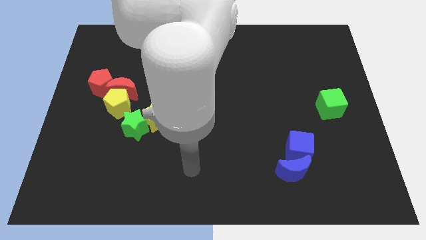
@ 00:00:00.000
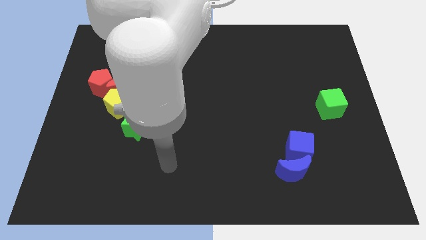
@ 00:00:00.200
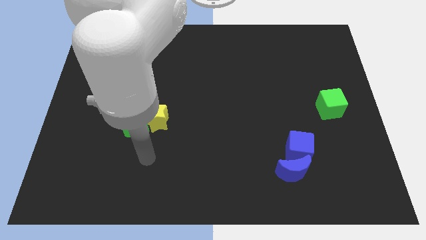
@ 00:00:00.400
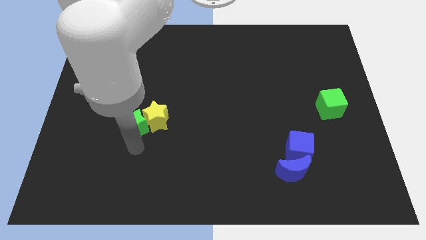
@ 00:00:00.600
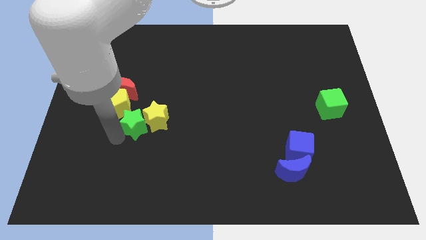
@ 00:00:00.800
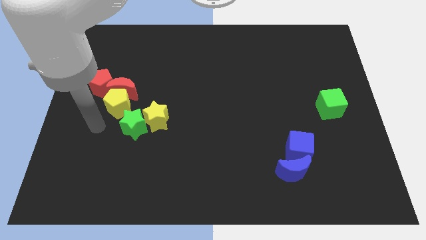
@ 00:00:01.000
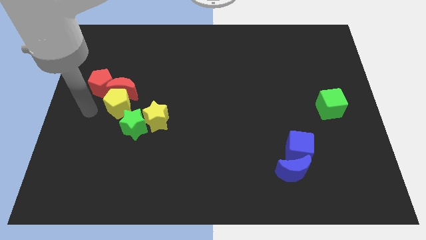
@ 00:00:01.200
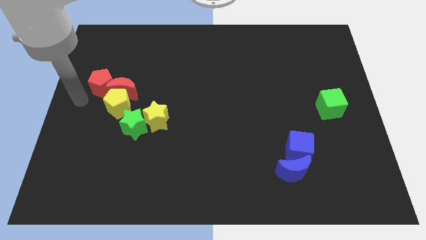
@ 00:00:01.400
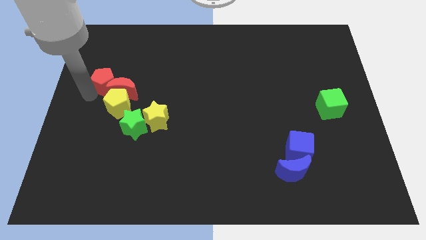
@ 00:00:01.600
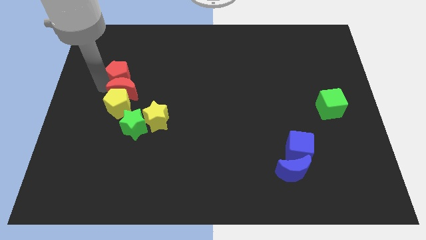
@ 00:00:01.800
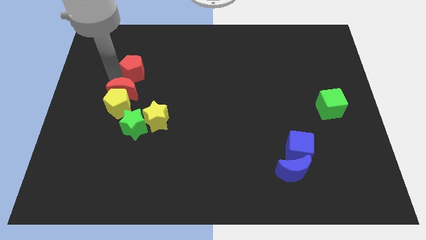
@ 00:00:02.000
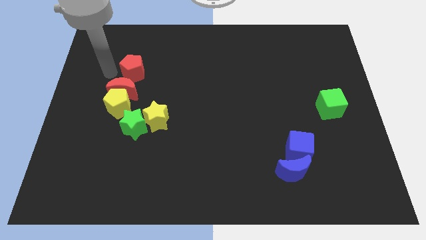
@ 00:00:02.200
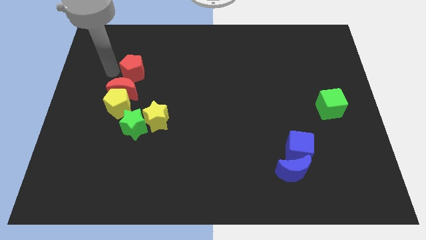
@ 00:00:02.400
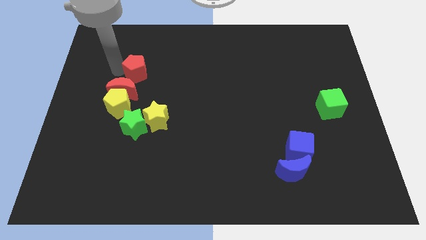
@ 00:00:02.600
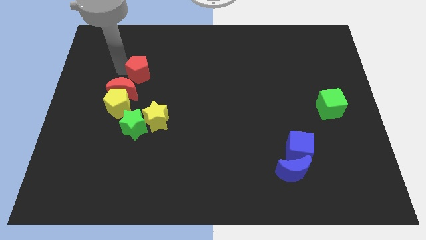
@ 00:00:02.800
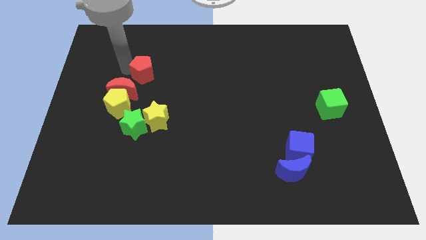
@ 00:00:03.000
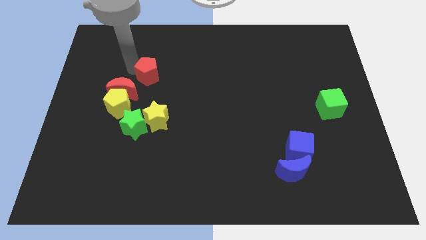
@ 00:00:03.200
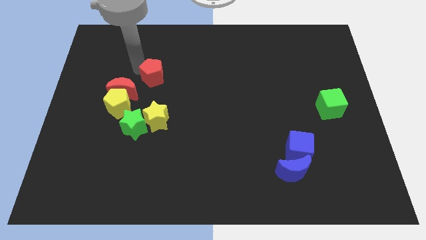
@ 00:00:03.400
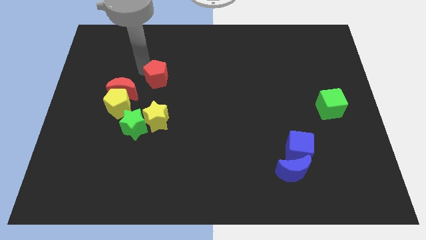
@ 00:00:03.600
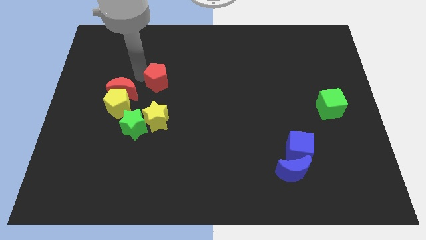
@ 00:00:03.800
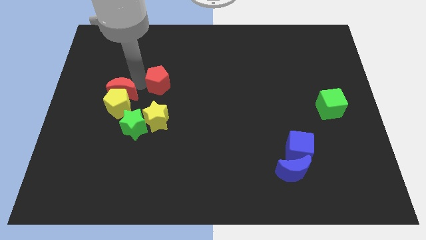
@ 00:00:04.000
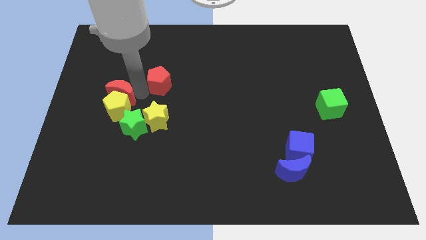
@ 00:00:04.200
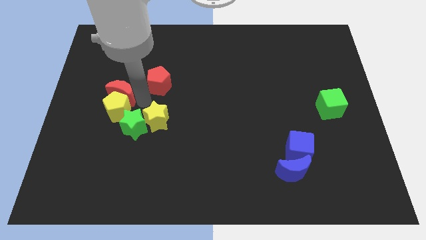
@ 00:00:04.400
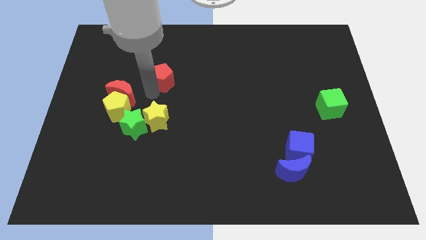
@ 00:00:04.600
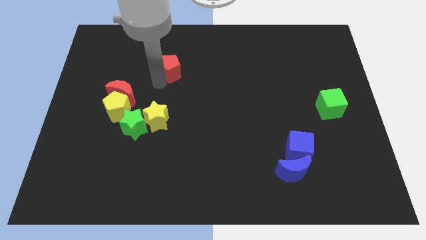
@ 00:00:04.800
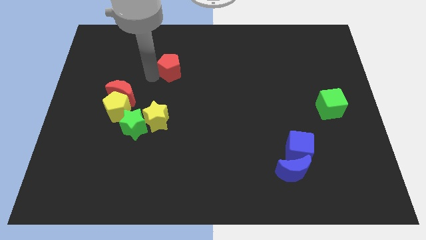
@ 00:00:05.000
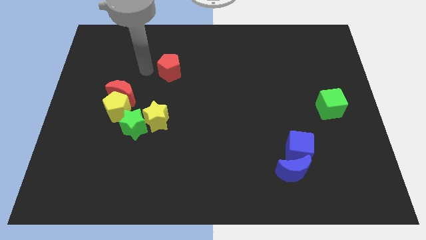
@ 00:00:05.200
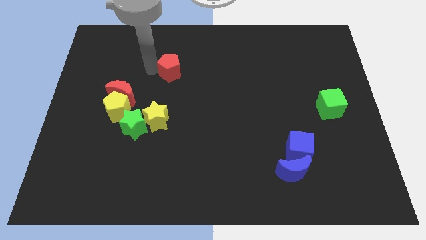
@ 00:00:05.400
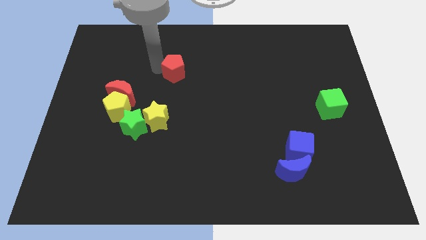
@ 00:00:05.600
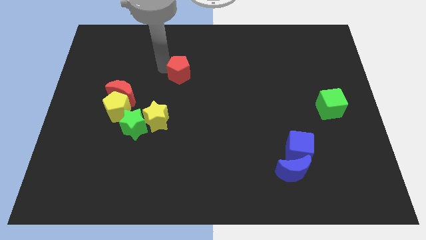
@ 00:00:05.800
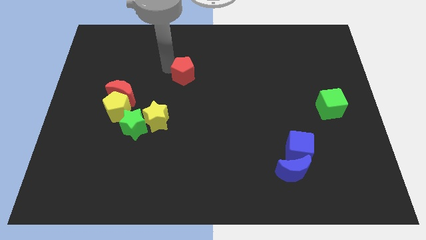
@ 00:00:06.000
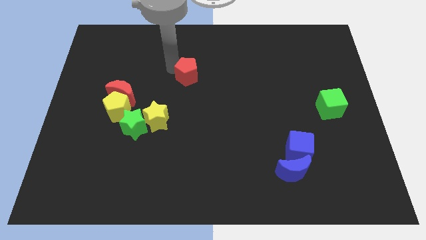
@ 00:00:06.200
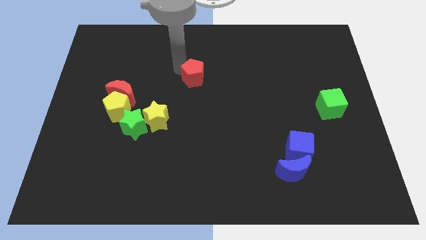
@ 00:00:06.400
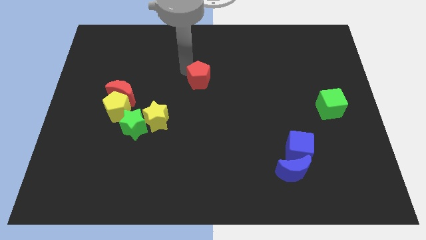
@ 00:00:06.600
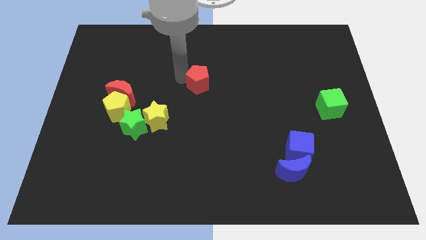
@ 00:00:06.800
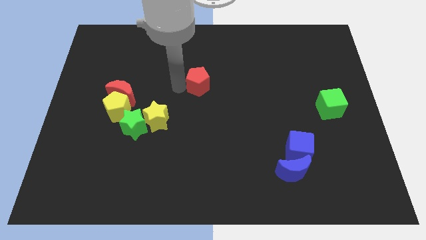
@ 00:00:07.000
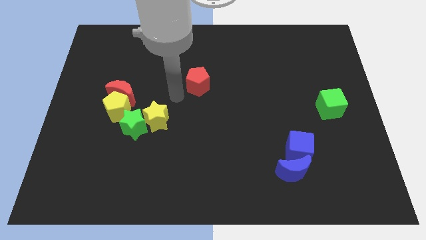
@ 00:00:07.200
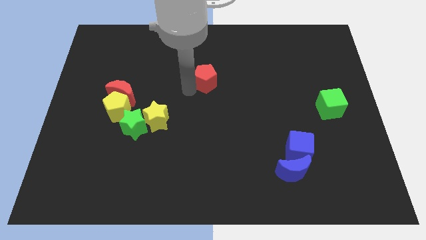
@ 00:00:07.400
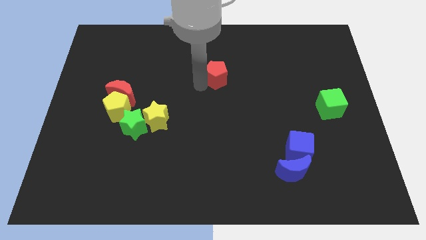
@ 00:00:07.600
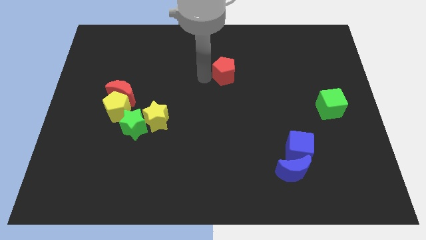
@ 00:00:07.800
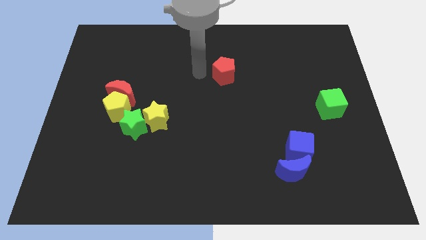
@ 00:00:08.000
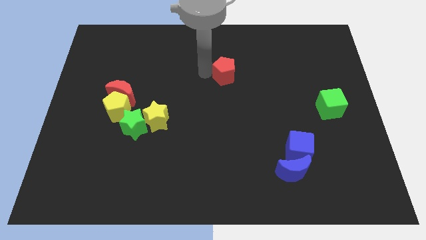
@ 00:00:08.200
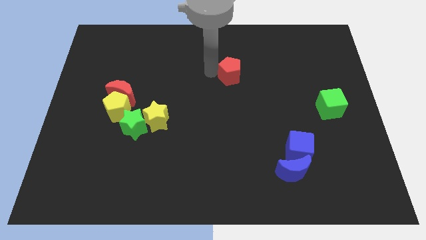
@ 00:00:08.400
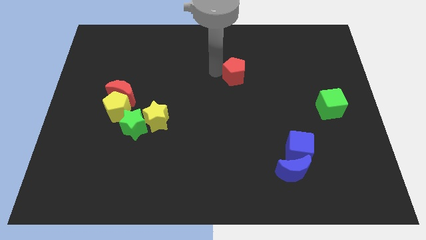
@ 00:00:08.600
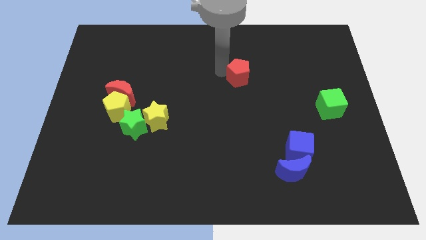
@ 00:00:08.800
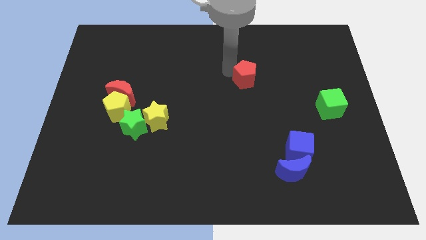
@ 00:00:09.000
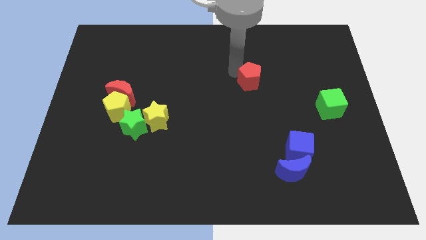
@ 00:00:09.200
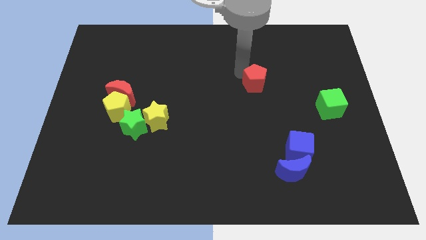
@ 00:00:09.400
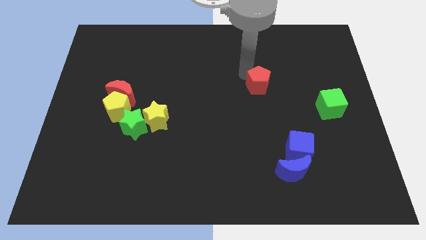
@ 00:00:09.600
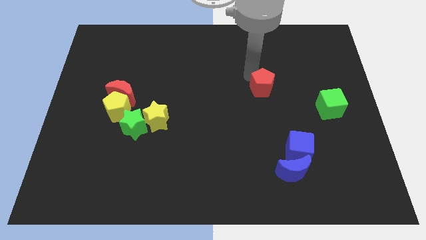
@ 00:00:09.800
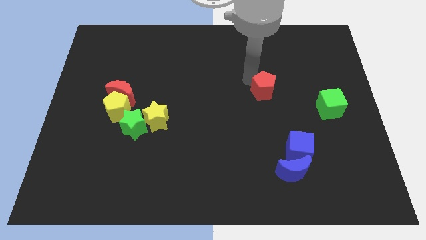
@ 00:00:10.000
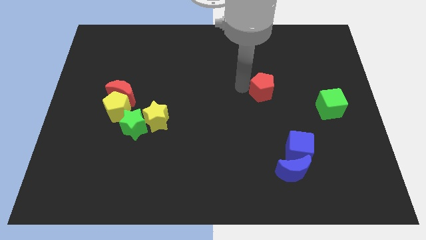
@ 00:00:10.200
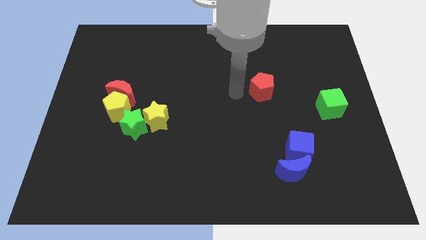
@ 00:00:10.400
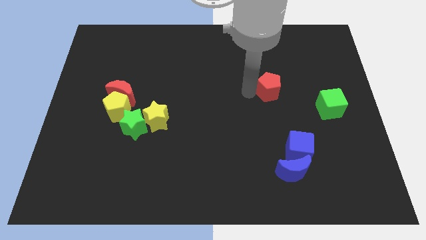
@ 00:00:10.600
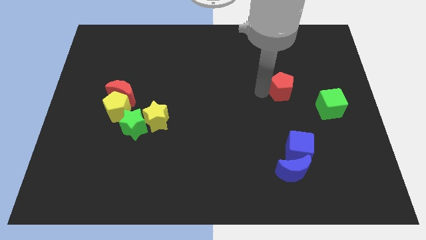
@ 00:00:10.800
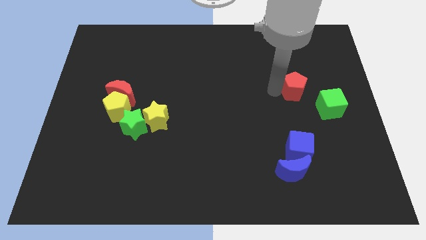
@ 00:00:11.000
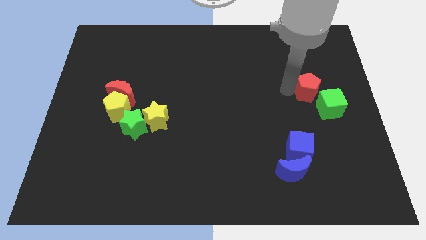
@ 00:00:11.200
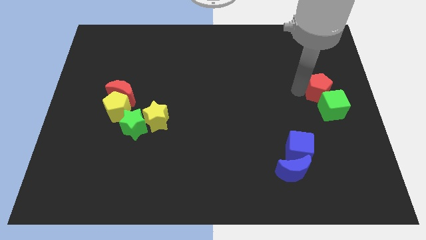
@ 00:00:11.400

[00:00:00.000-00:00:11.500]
slide the red pentagon to the center right
